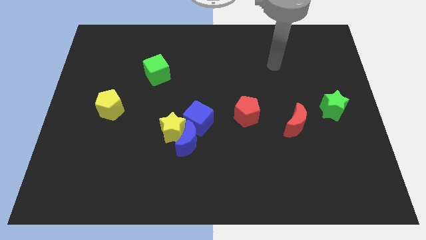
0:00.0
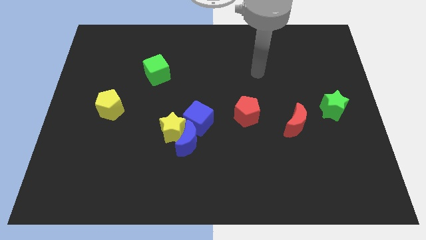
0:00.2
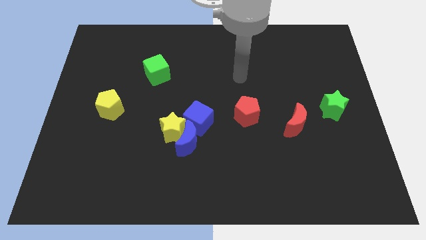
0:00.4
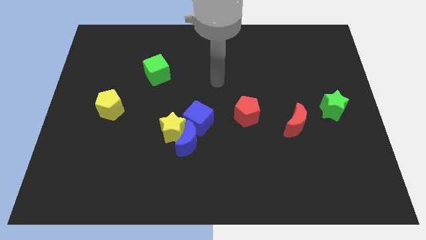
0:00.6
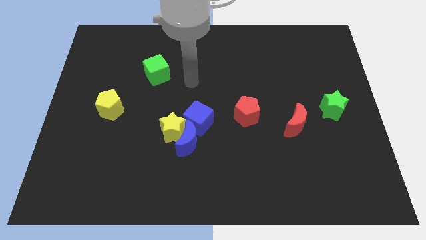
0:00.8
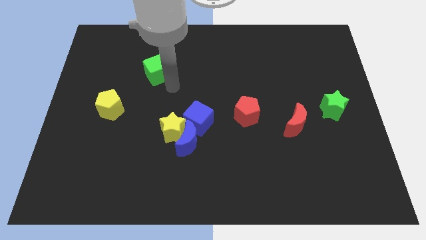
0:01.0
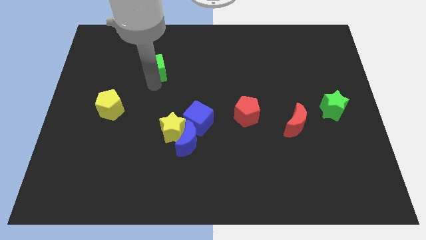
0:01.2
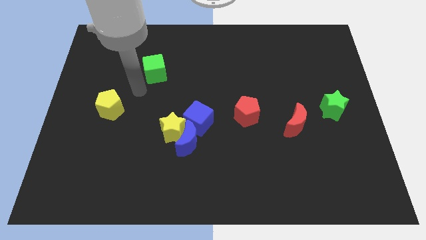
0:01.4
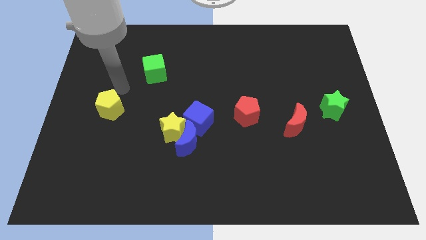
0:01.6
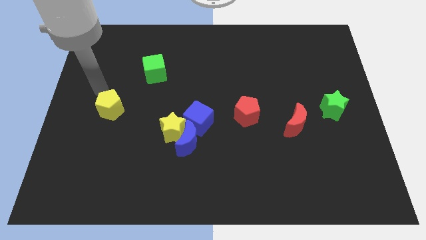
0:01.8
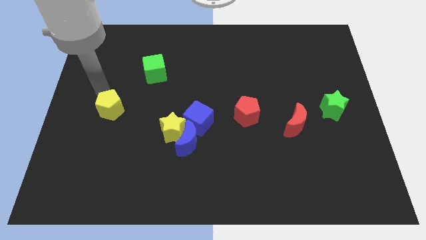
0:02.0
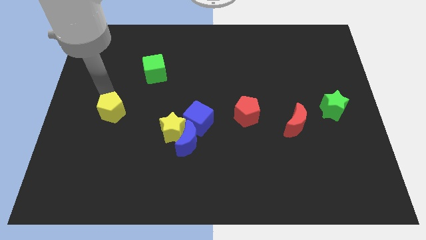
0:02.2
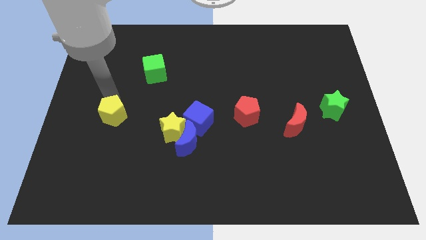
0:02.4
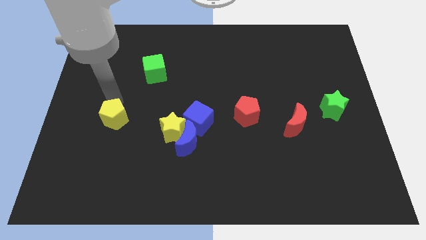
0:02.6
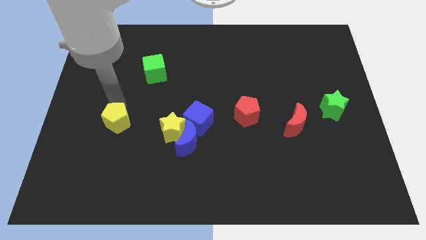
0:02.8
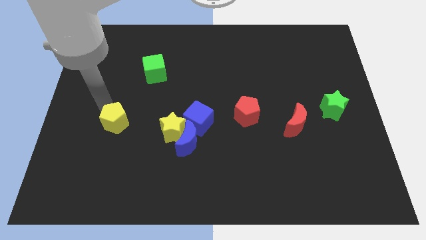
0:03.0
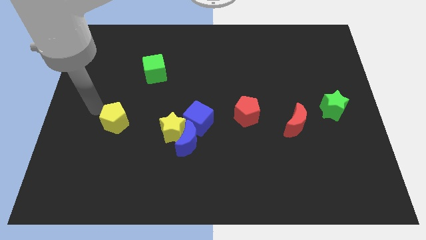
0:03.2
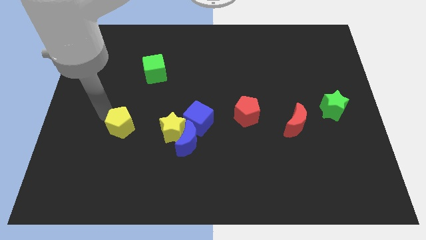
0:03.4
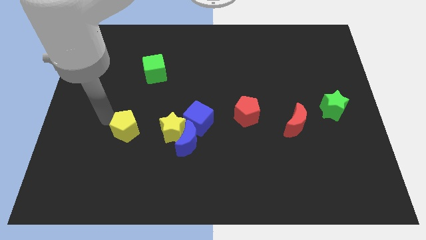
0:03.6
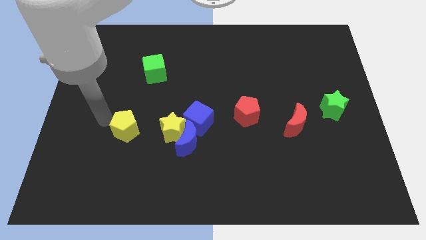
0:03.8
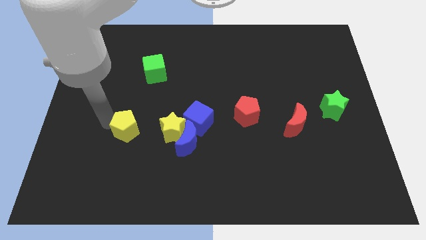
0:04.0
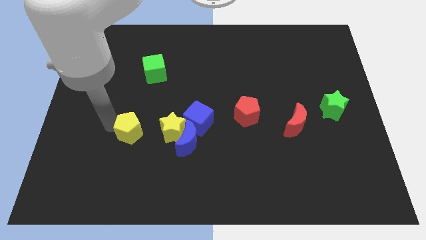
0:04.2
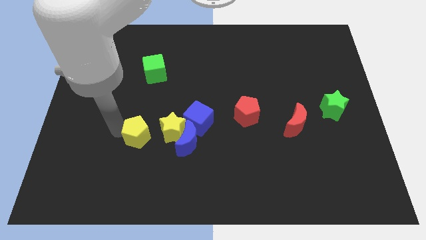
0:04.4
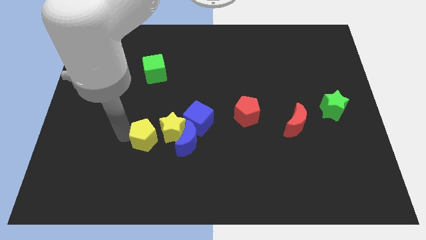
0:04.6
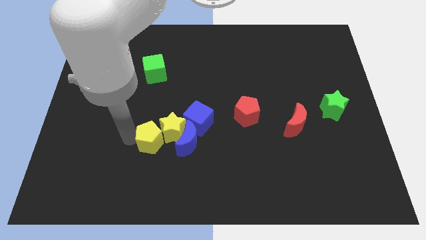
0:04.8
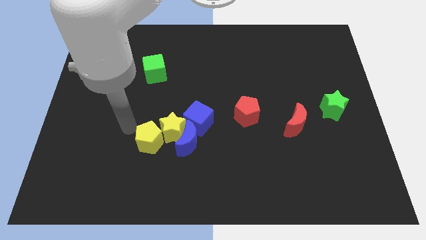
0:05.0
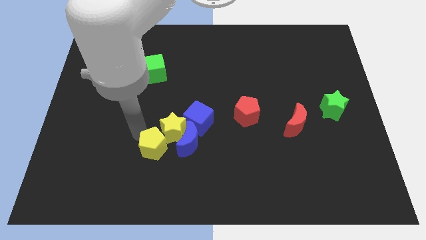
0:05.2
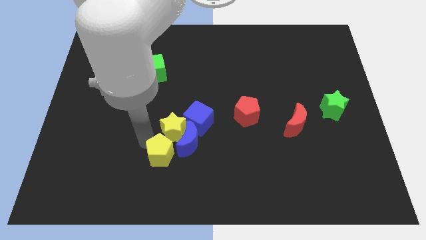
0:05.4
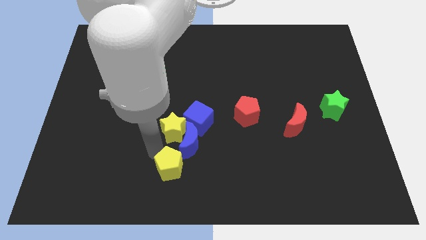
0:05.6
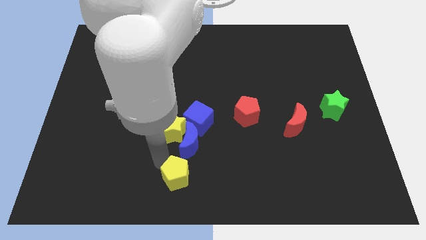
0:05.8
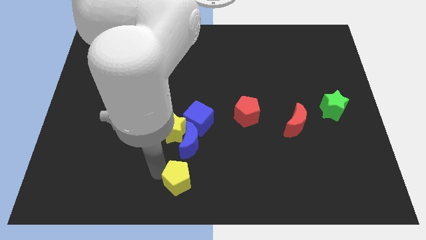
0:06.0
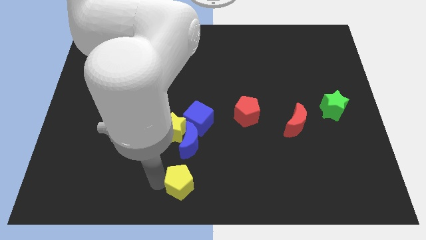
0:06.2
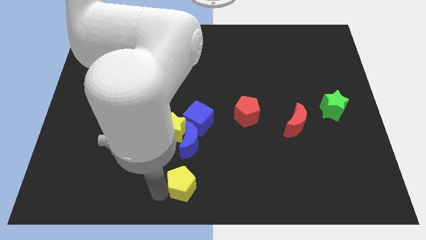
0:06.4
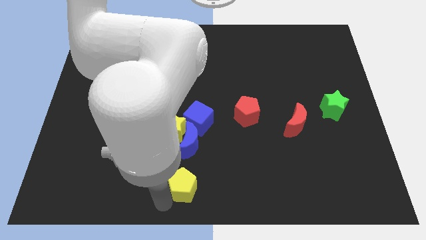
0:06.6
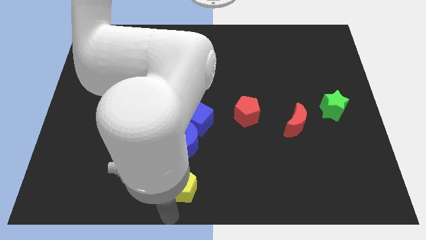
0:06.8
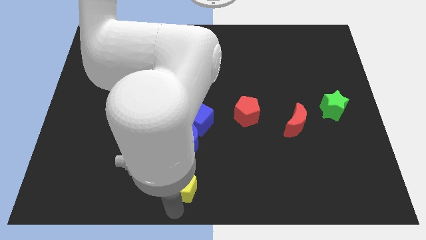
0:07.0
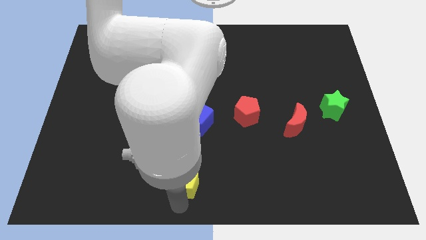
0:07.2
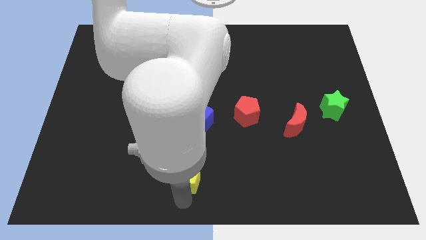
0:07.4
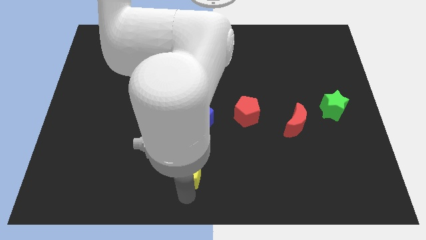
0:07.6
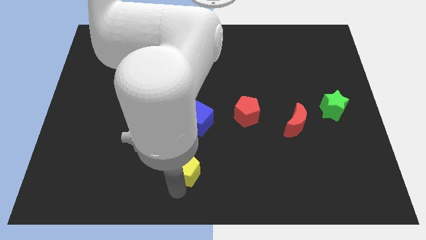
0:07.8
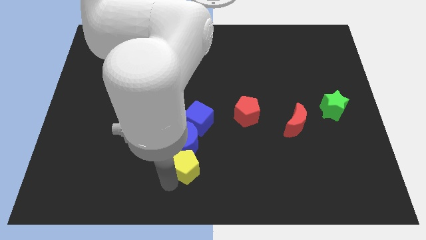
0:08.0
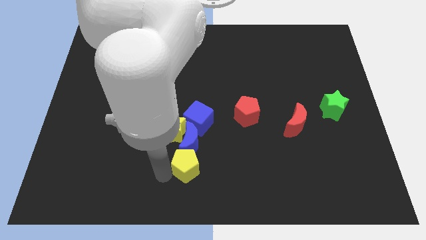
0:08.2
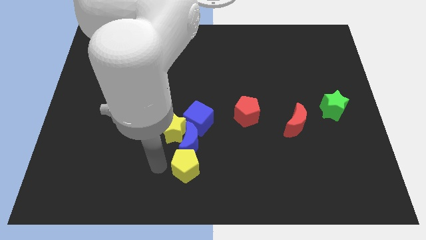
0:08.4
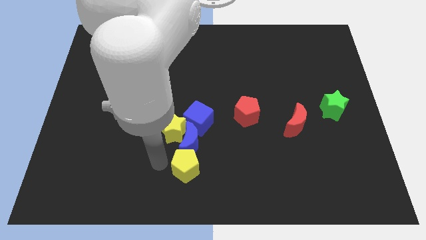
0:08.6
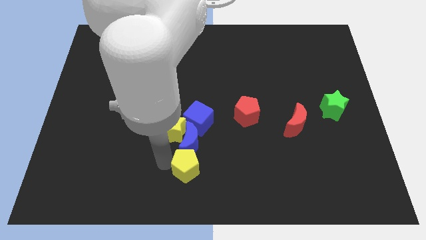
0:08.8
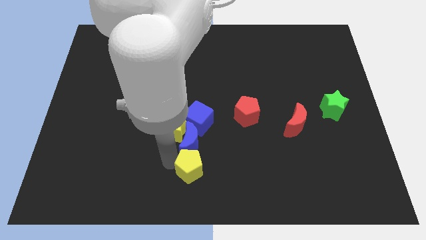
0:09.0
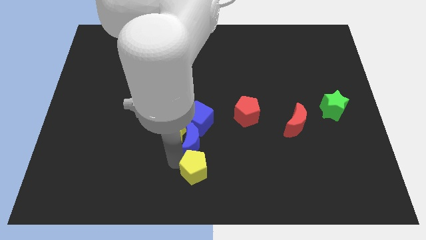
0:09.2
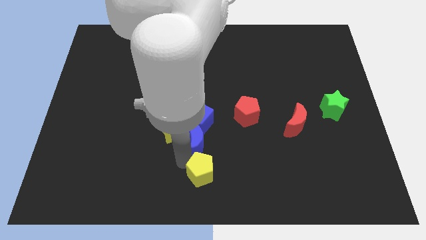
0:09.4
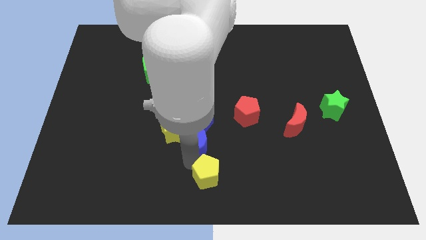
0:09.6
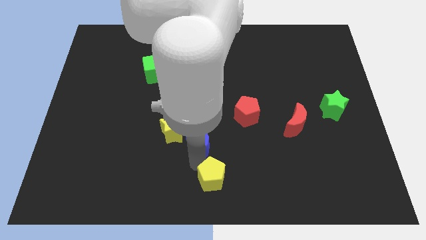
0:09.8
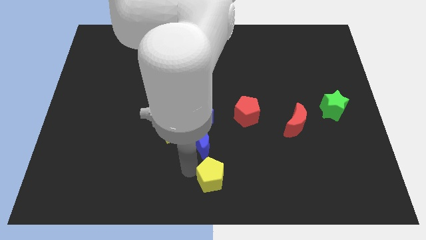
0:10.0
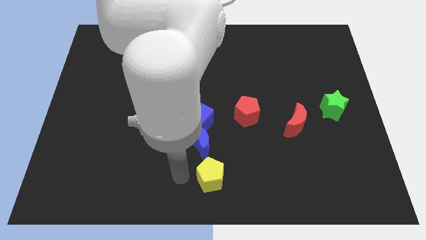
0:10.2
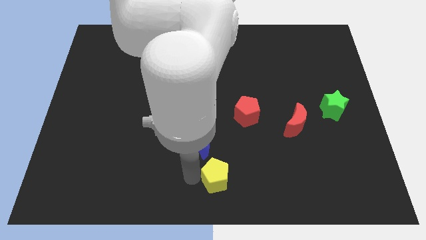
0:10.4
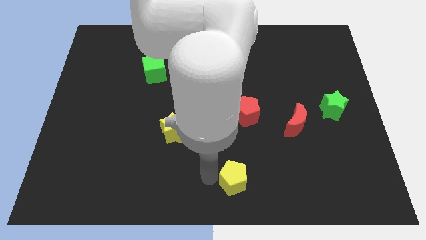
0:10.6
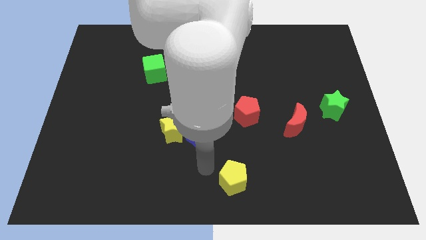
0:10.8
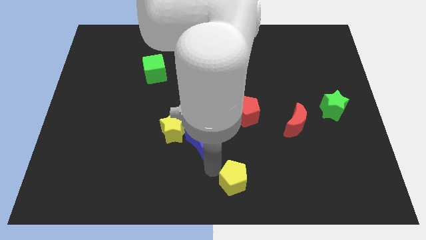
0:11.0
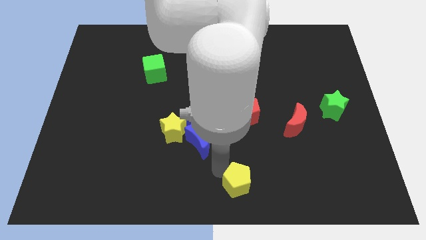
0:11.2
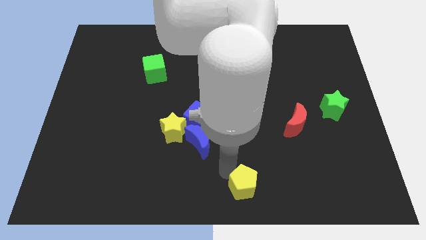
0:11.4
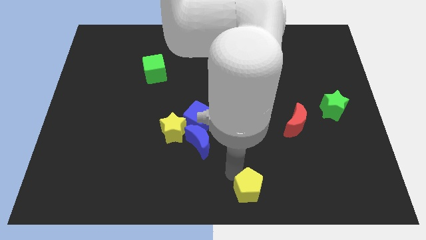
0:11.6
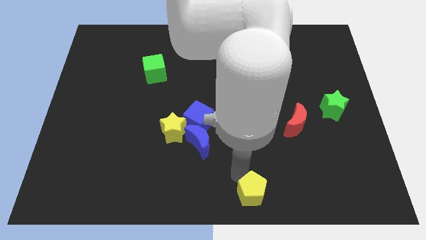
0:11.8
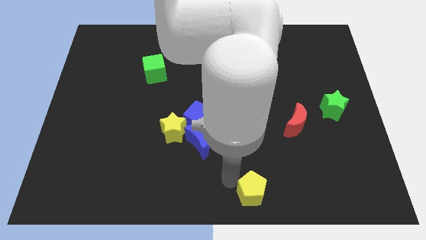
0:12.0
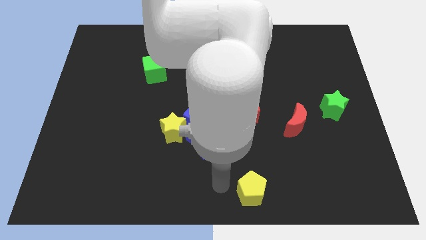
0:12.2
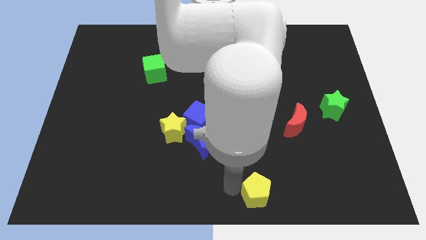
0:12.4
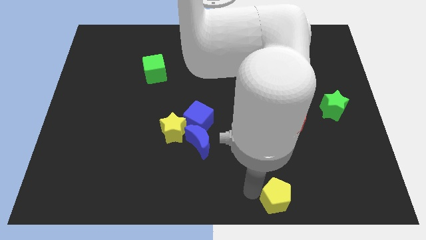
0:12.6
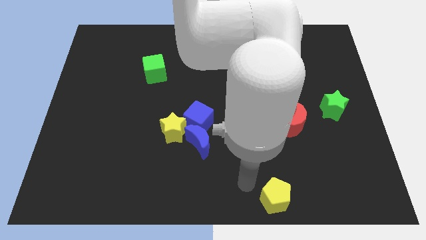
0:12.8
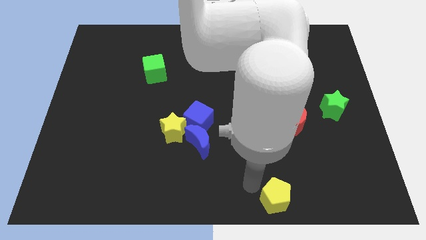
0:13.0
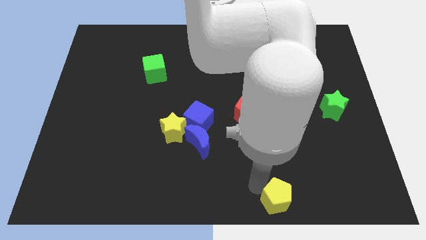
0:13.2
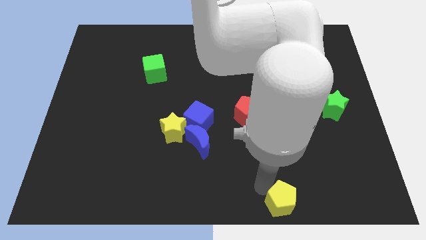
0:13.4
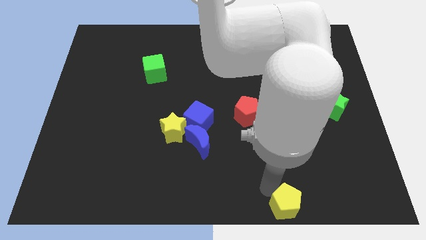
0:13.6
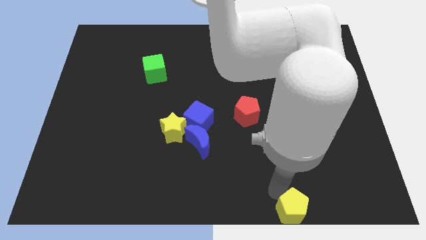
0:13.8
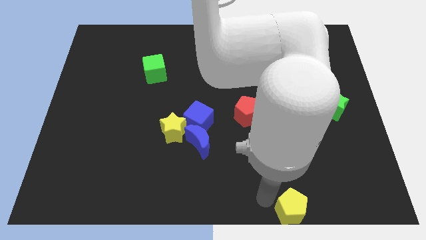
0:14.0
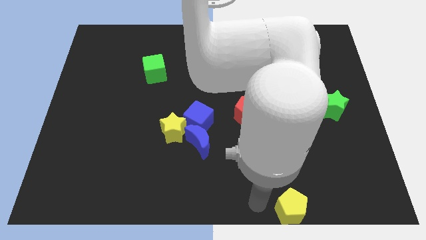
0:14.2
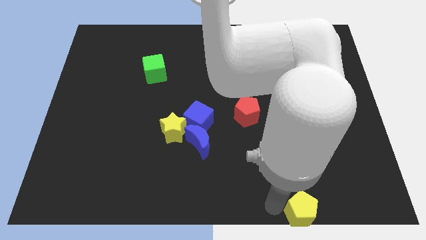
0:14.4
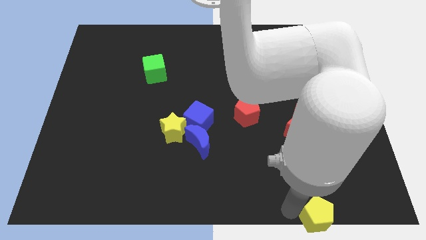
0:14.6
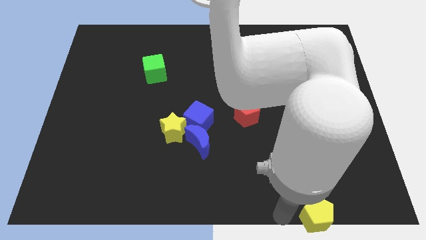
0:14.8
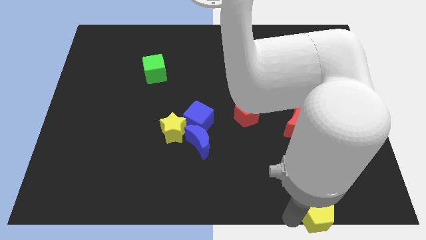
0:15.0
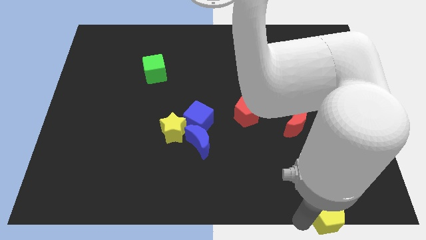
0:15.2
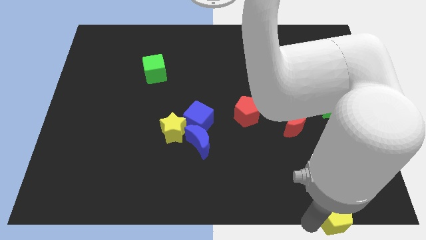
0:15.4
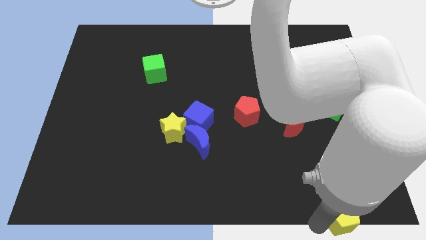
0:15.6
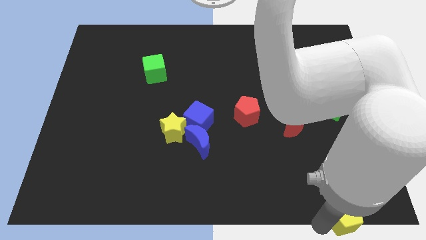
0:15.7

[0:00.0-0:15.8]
put the yellow pentagon to the bottom right
